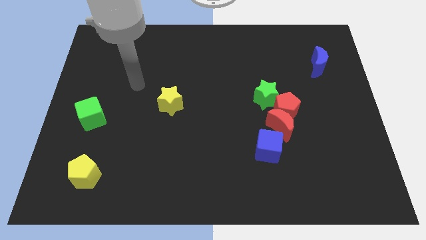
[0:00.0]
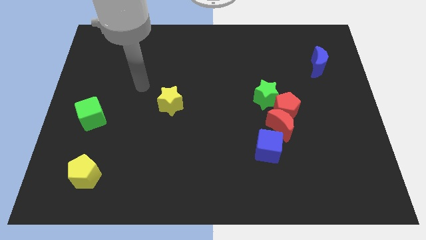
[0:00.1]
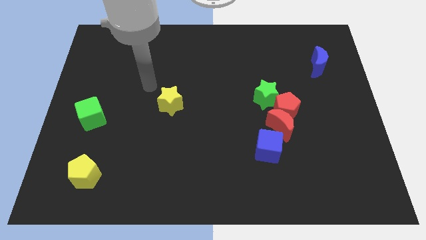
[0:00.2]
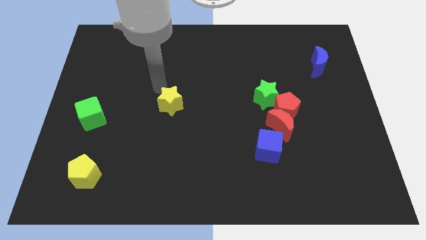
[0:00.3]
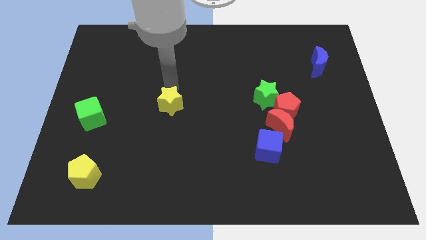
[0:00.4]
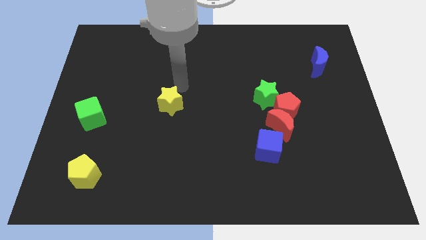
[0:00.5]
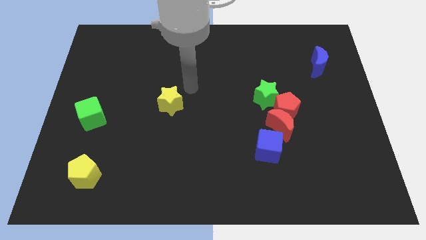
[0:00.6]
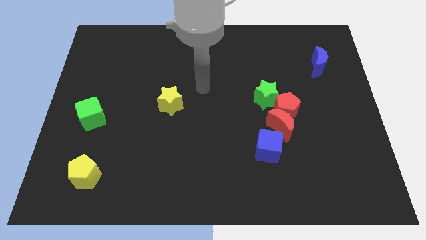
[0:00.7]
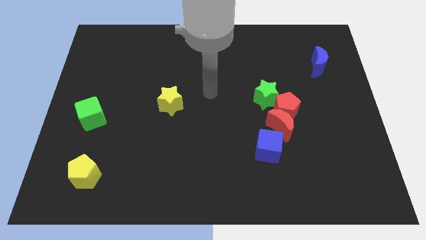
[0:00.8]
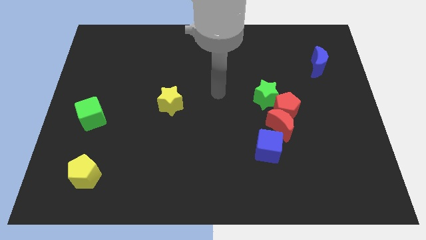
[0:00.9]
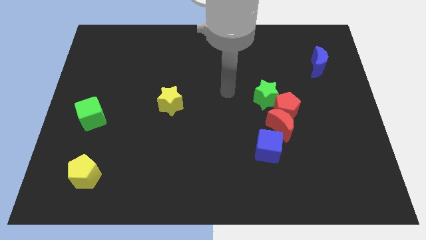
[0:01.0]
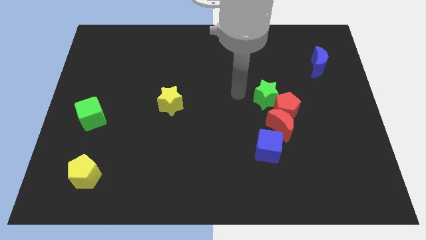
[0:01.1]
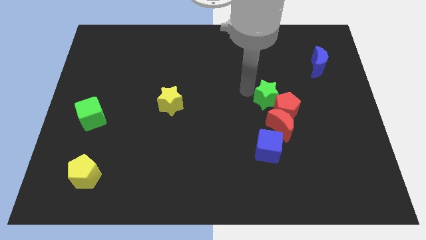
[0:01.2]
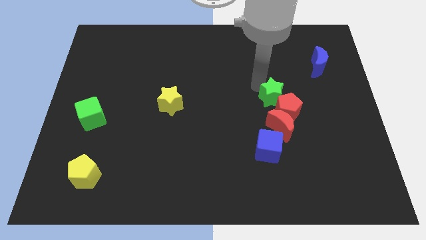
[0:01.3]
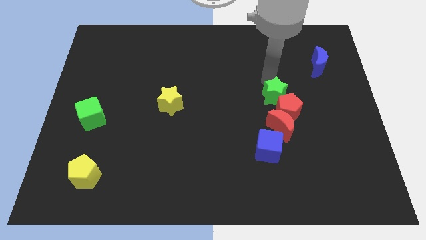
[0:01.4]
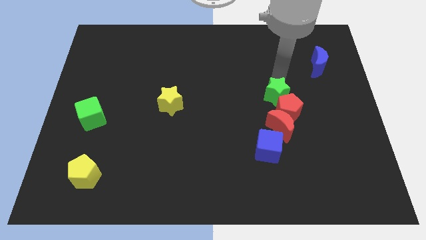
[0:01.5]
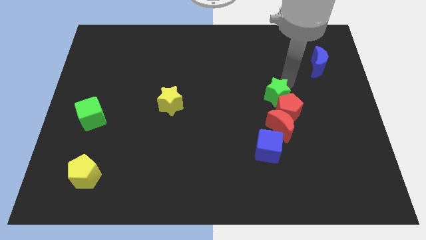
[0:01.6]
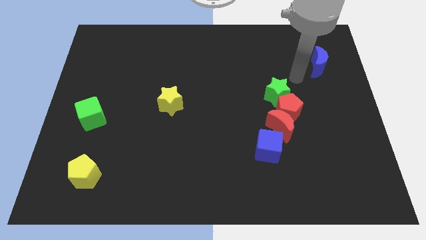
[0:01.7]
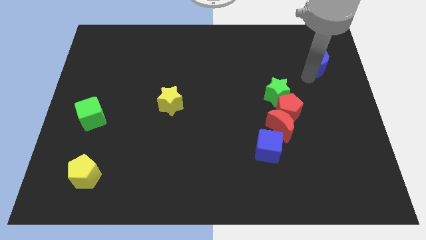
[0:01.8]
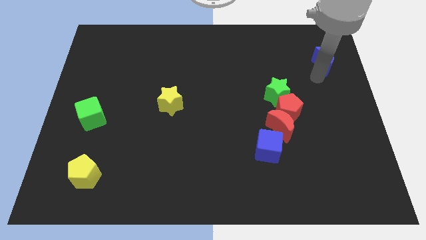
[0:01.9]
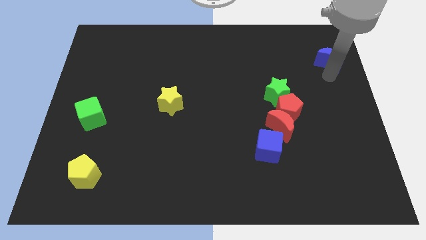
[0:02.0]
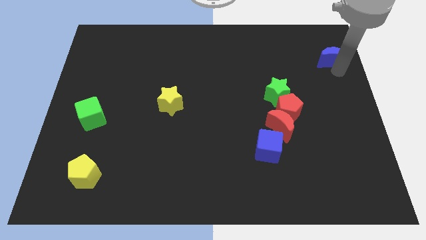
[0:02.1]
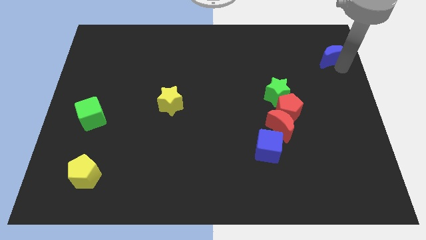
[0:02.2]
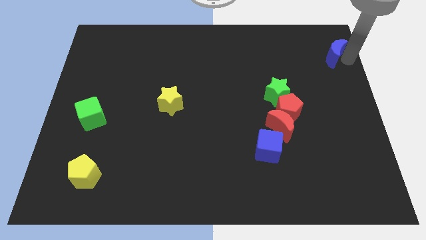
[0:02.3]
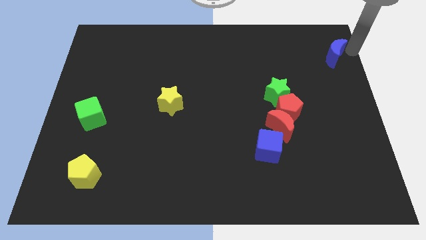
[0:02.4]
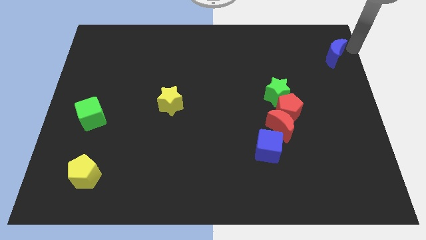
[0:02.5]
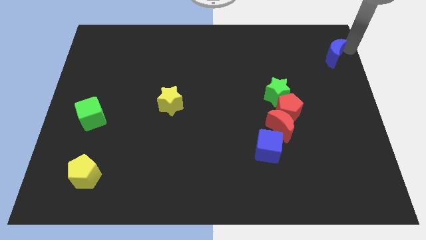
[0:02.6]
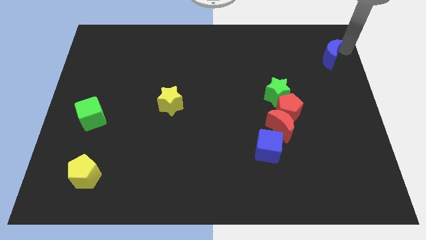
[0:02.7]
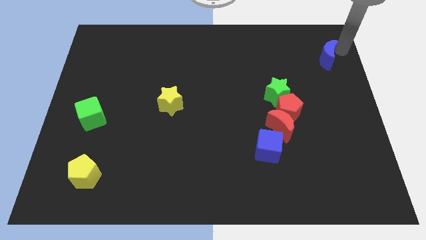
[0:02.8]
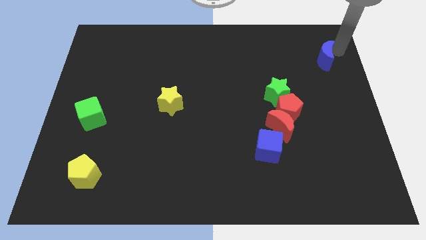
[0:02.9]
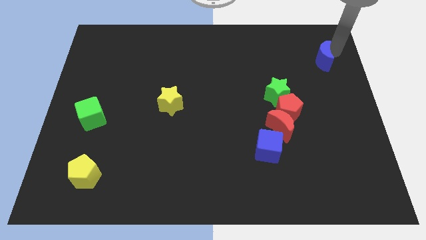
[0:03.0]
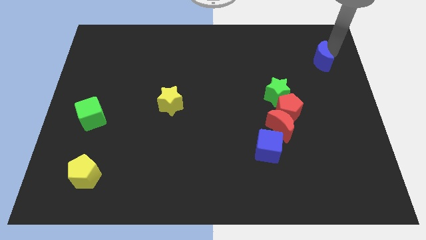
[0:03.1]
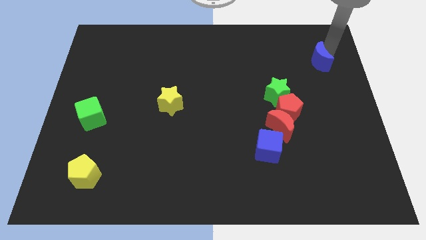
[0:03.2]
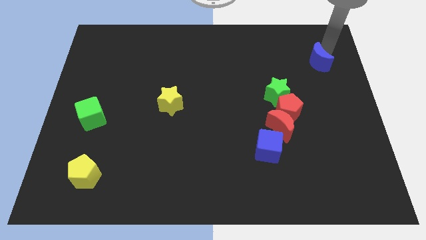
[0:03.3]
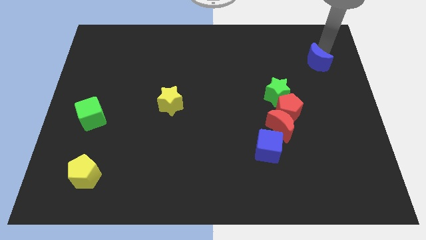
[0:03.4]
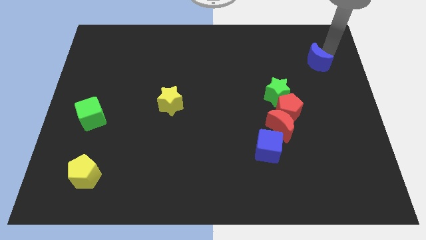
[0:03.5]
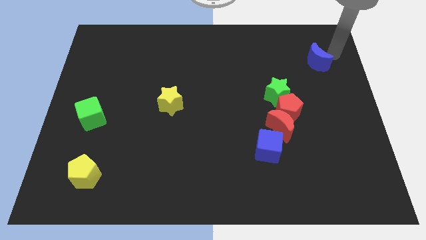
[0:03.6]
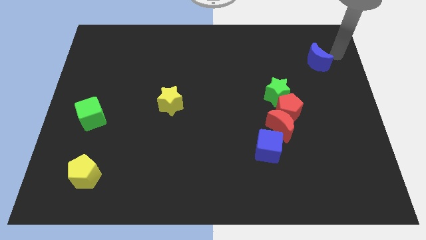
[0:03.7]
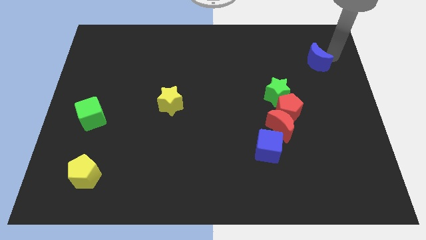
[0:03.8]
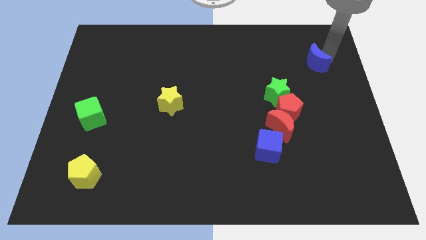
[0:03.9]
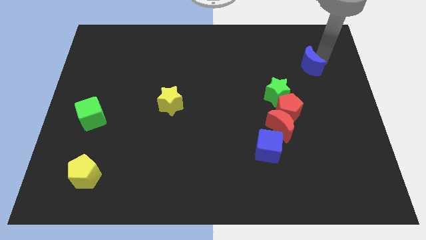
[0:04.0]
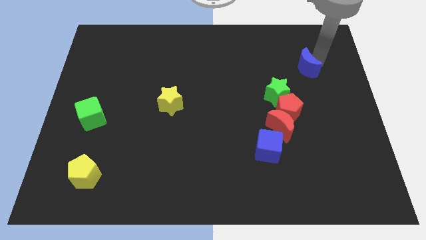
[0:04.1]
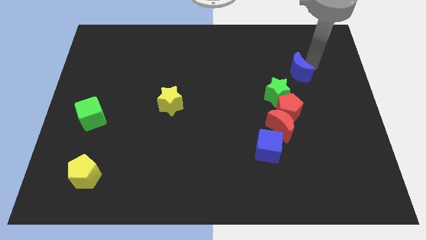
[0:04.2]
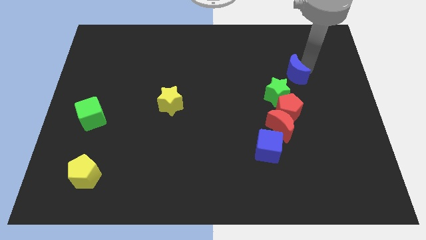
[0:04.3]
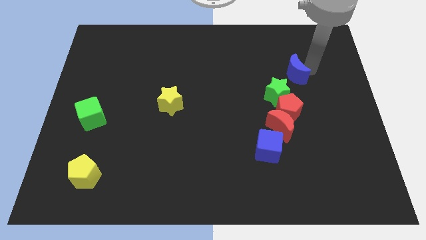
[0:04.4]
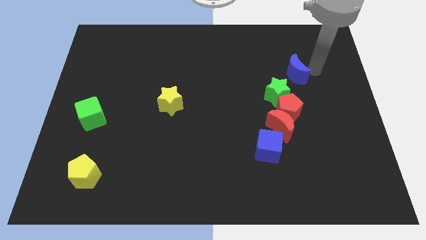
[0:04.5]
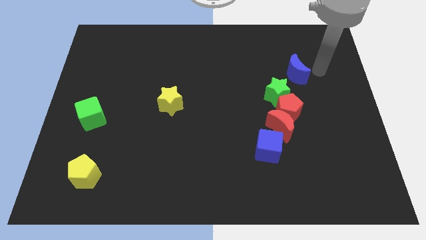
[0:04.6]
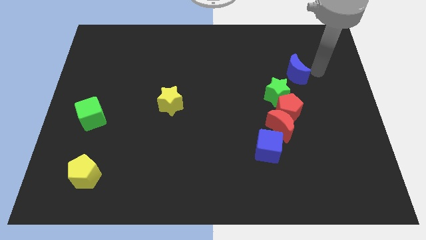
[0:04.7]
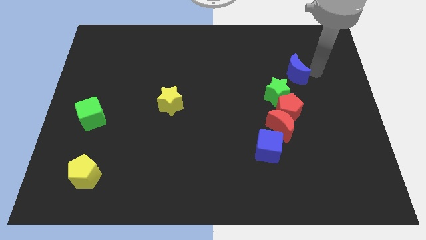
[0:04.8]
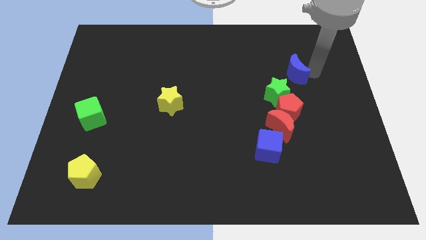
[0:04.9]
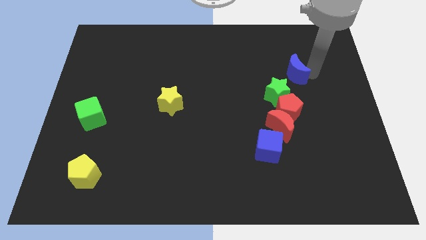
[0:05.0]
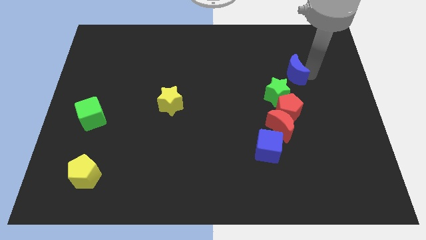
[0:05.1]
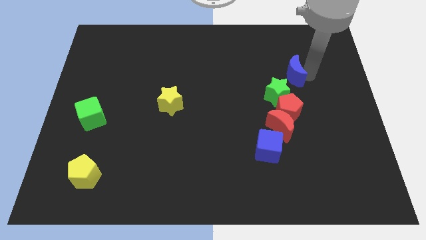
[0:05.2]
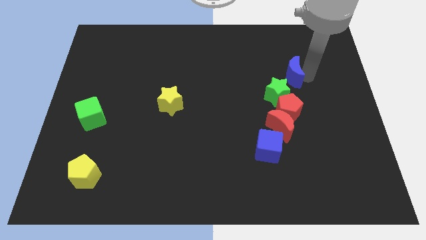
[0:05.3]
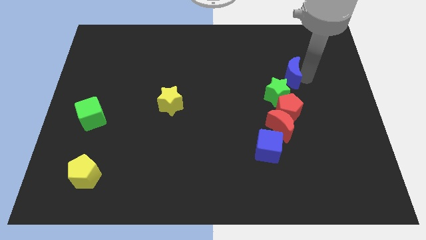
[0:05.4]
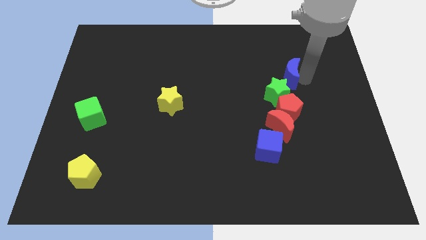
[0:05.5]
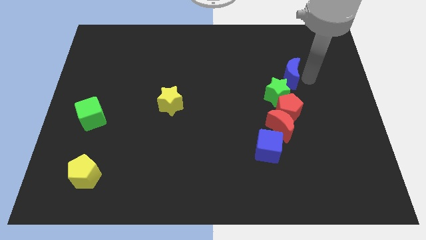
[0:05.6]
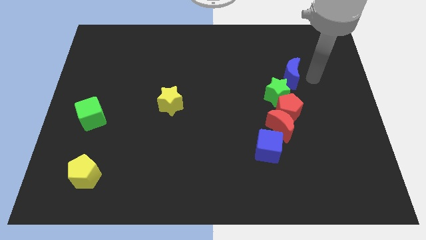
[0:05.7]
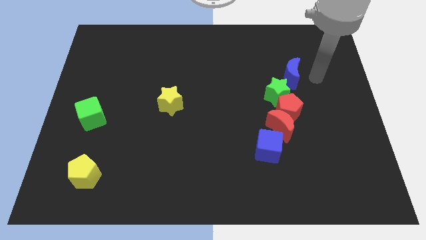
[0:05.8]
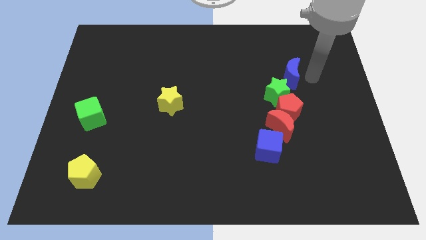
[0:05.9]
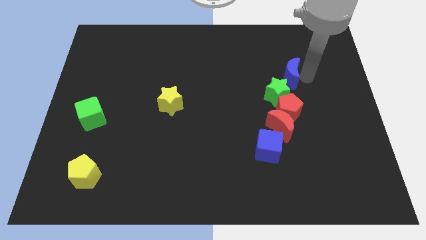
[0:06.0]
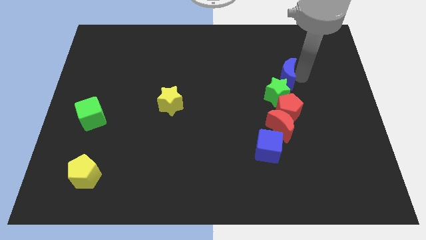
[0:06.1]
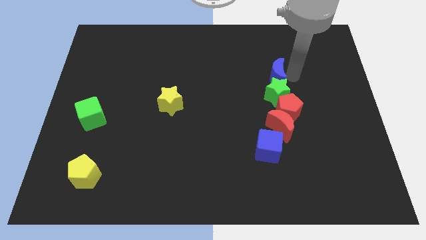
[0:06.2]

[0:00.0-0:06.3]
push the blue moon to the top left of the green star
